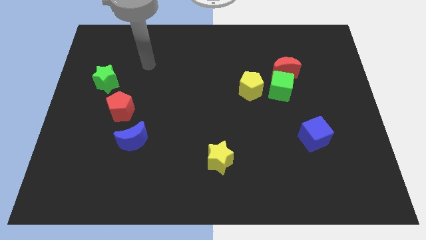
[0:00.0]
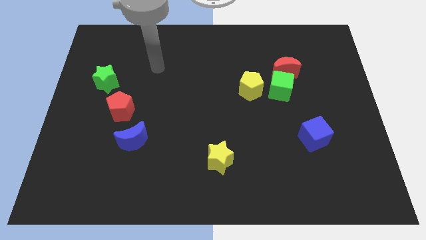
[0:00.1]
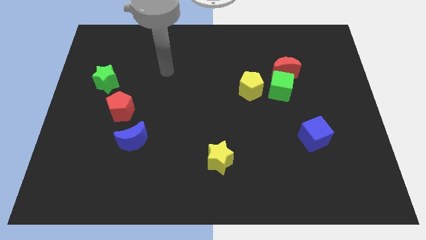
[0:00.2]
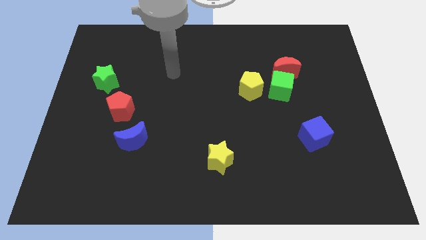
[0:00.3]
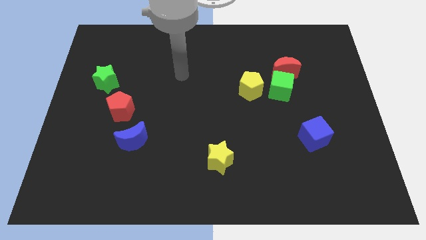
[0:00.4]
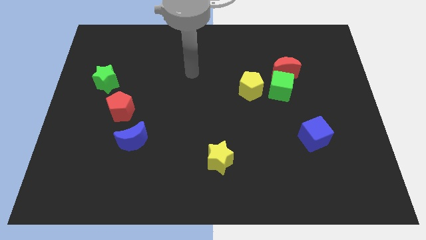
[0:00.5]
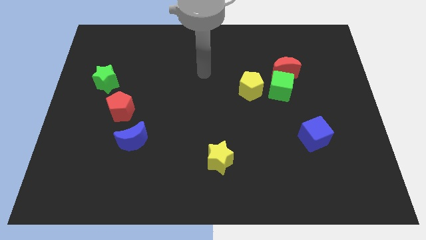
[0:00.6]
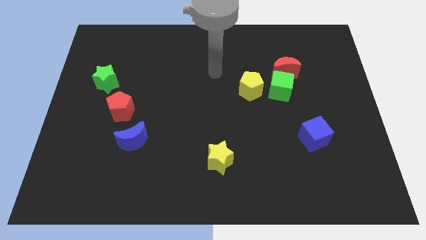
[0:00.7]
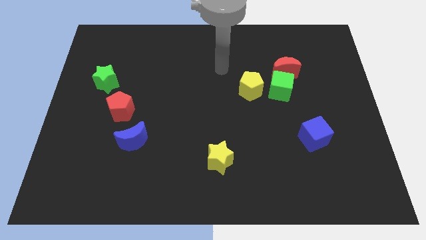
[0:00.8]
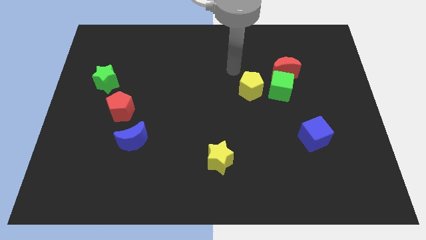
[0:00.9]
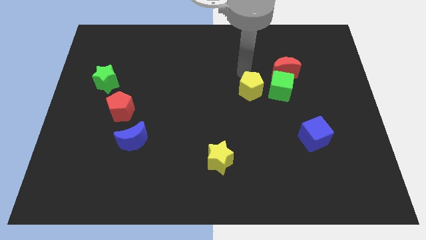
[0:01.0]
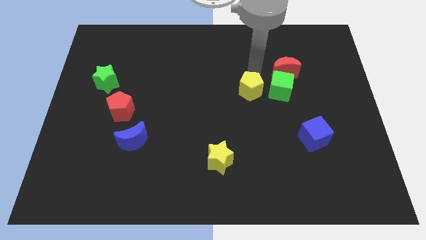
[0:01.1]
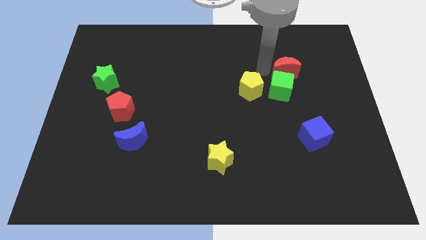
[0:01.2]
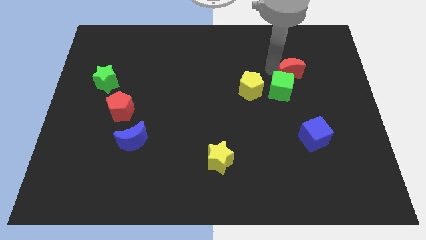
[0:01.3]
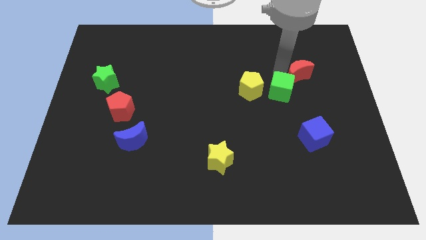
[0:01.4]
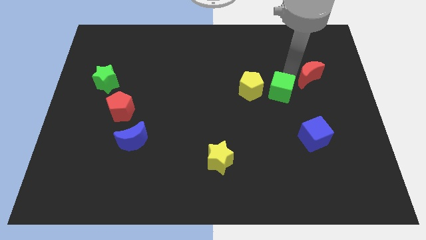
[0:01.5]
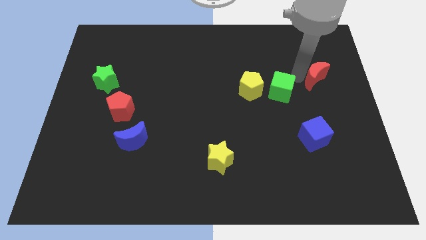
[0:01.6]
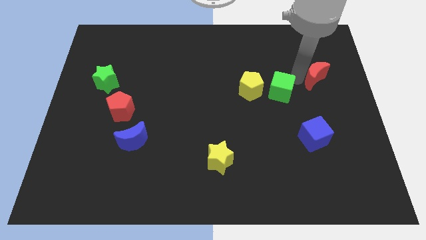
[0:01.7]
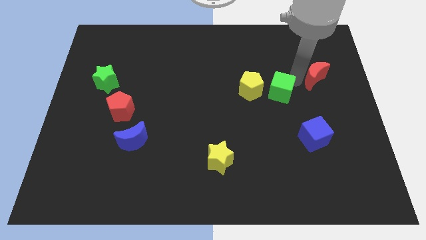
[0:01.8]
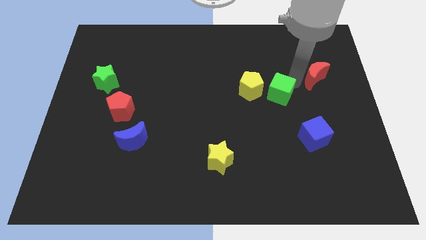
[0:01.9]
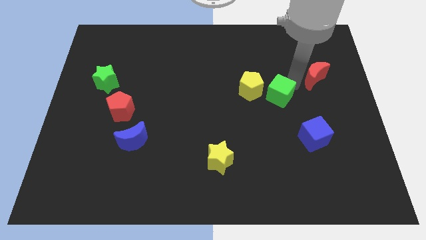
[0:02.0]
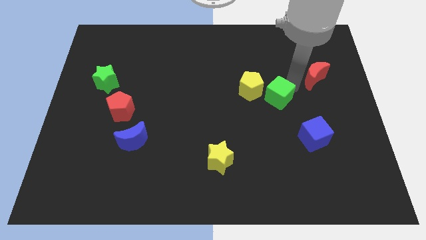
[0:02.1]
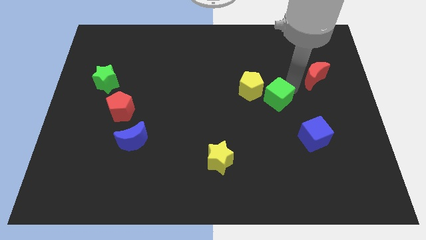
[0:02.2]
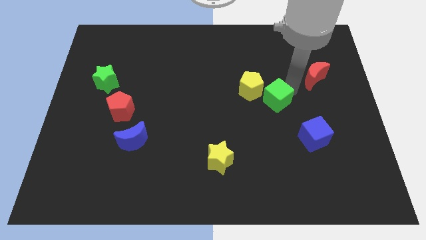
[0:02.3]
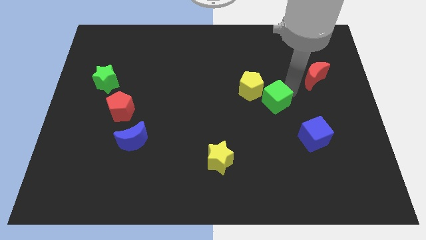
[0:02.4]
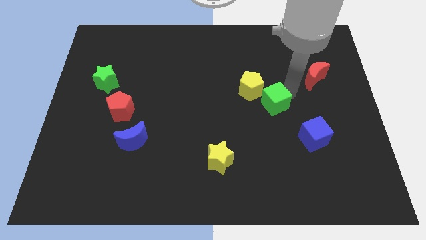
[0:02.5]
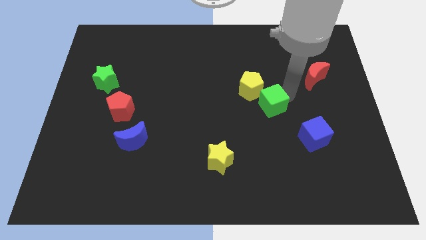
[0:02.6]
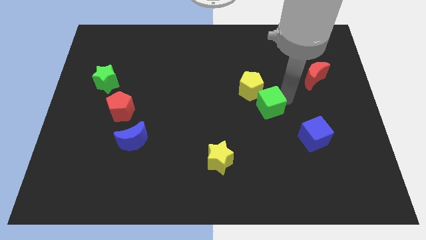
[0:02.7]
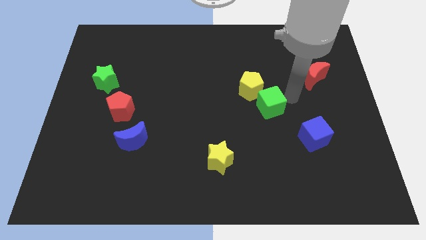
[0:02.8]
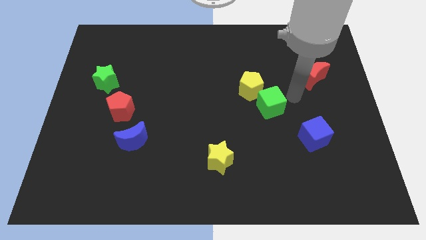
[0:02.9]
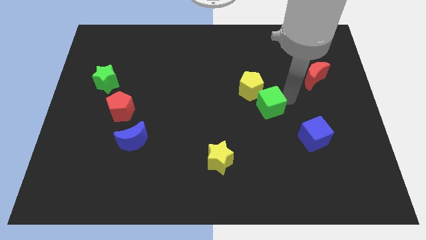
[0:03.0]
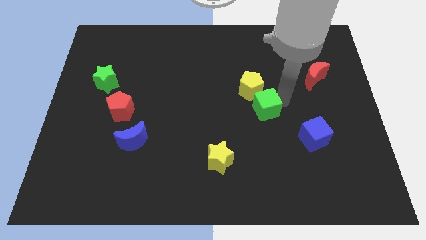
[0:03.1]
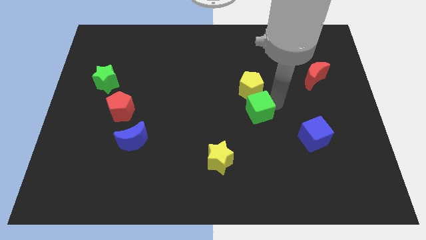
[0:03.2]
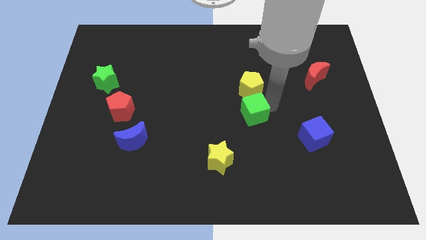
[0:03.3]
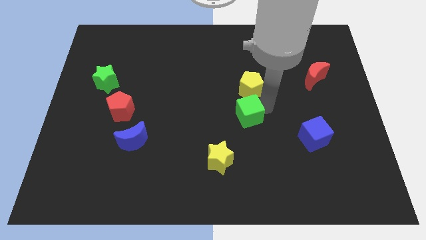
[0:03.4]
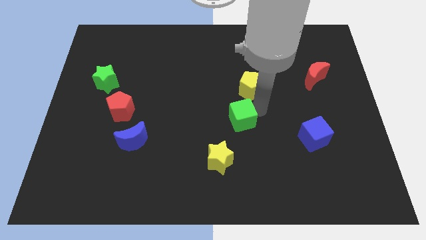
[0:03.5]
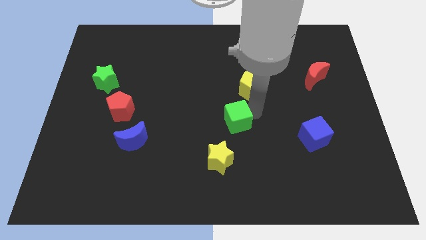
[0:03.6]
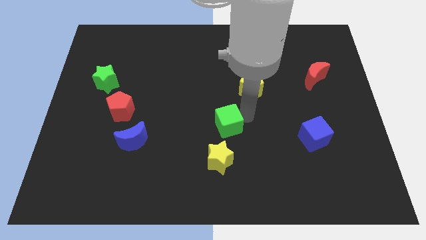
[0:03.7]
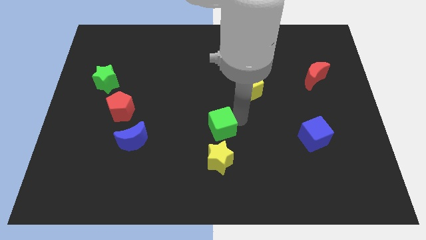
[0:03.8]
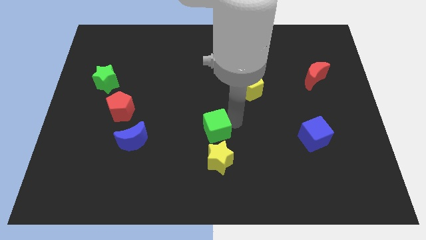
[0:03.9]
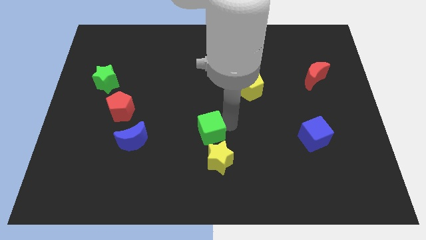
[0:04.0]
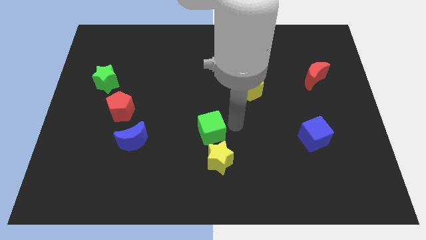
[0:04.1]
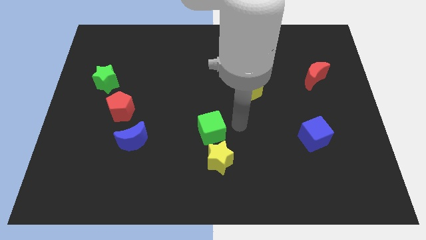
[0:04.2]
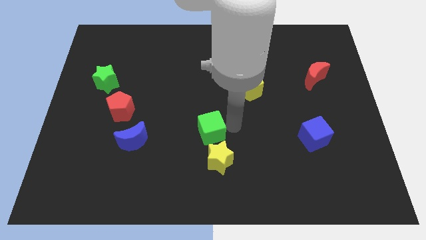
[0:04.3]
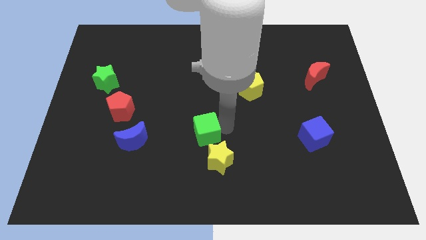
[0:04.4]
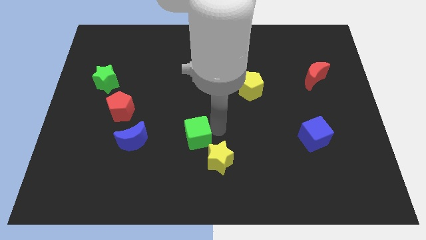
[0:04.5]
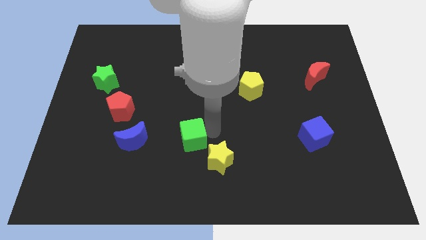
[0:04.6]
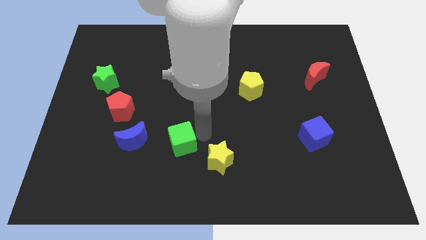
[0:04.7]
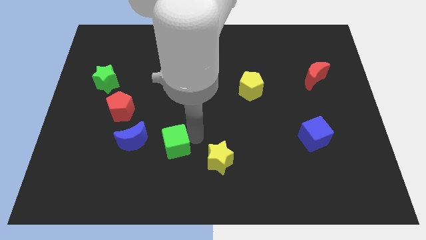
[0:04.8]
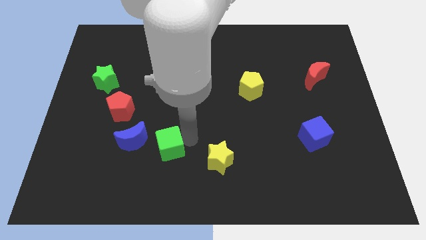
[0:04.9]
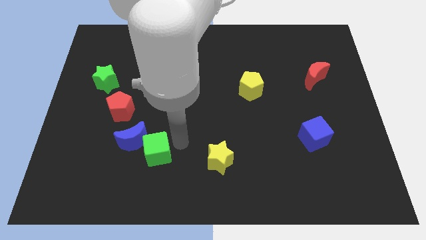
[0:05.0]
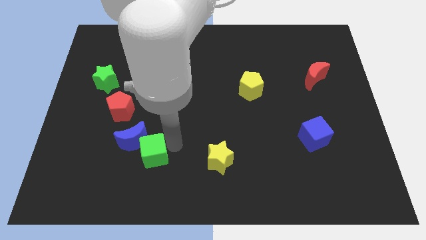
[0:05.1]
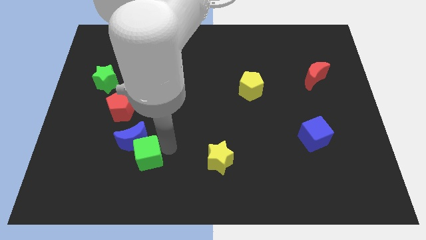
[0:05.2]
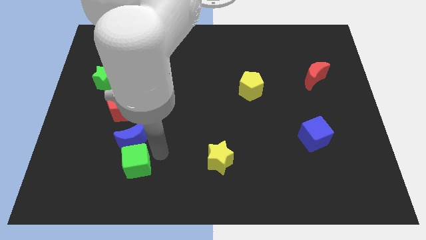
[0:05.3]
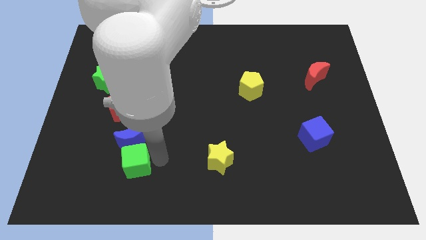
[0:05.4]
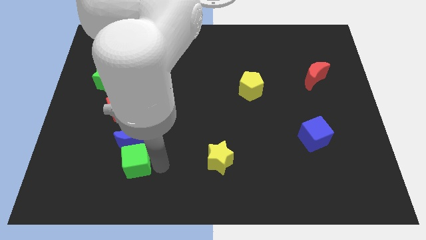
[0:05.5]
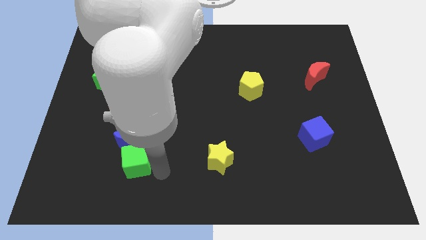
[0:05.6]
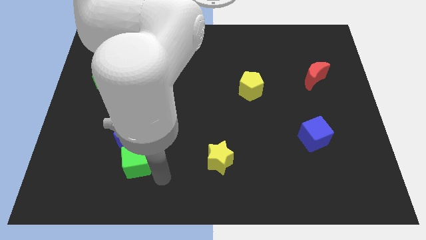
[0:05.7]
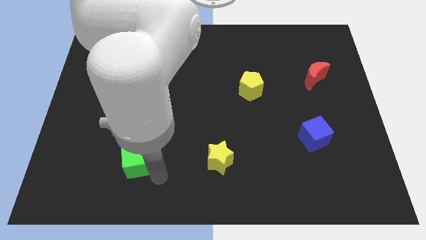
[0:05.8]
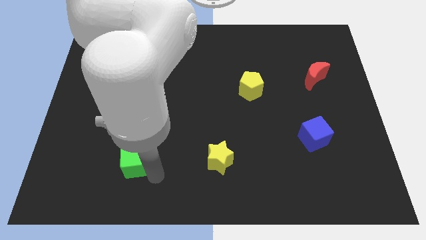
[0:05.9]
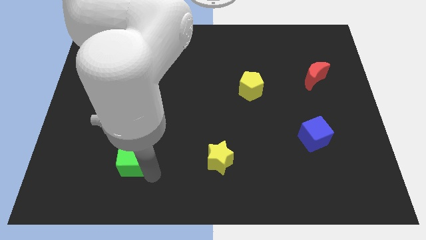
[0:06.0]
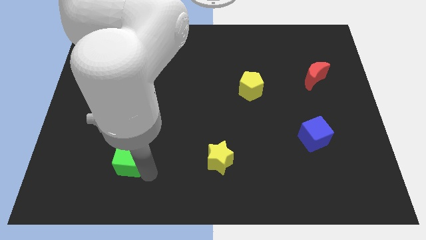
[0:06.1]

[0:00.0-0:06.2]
put the green cube below the red pentagon
